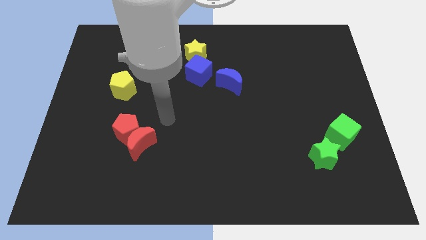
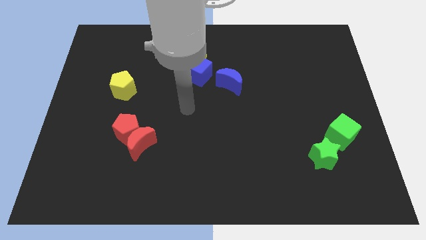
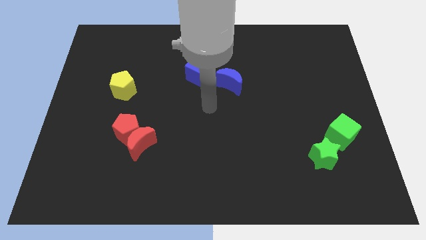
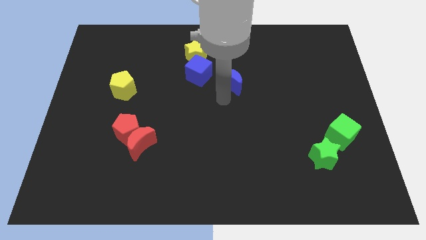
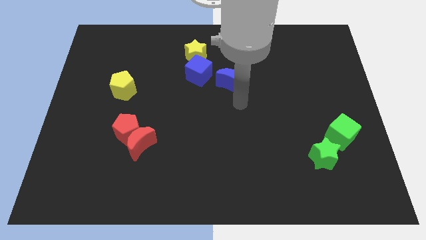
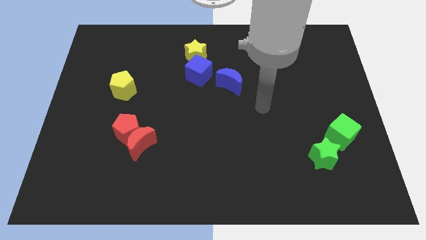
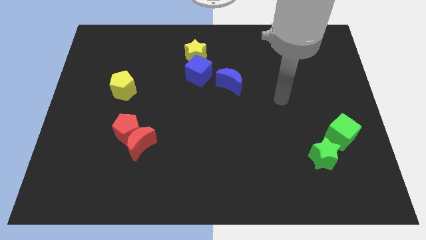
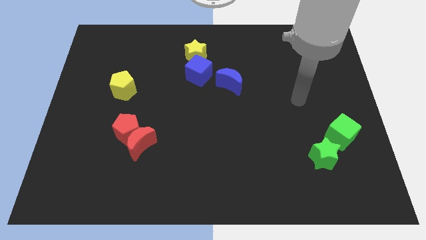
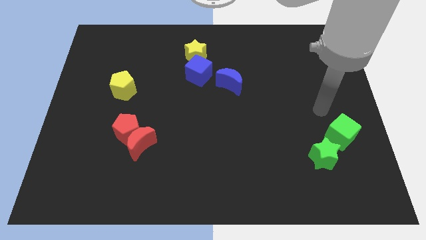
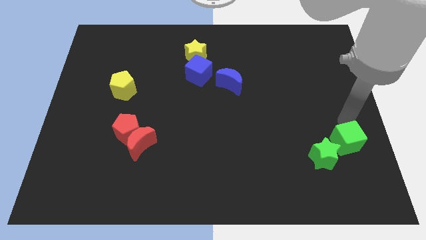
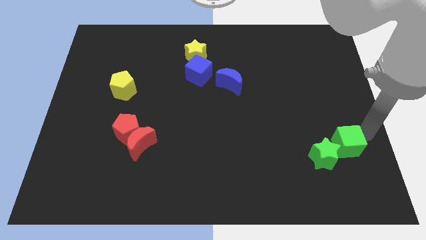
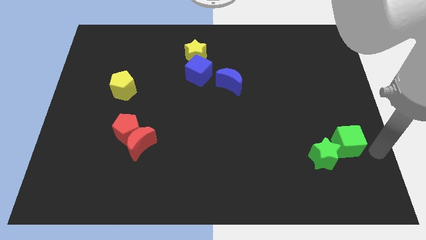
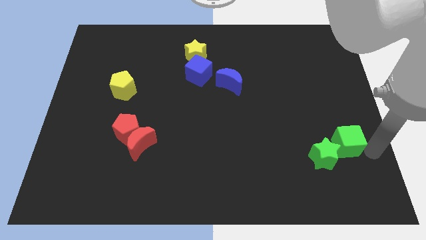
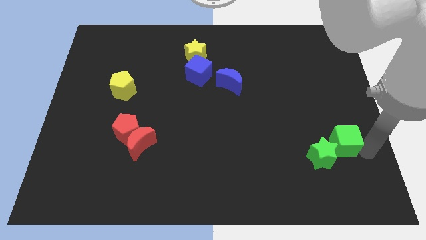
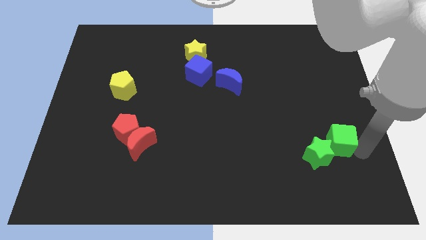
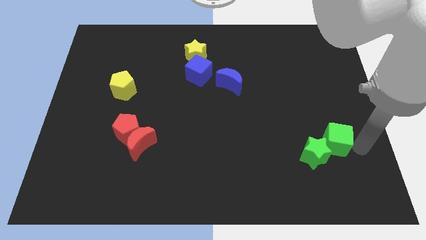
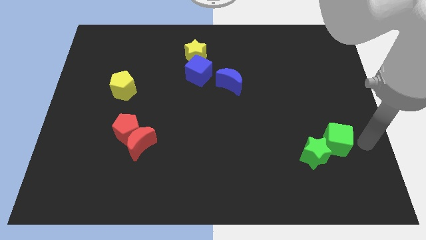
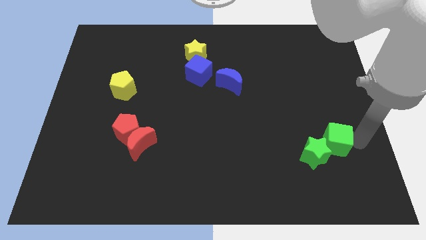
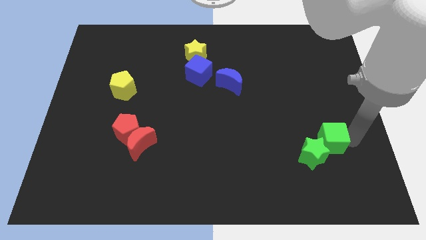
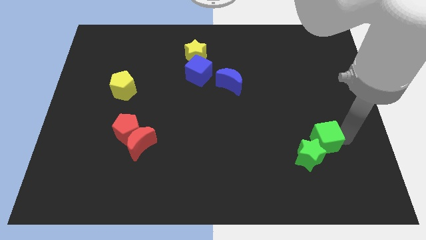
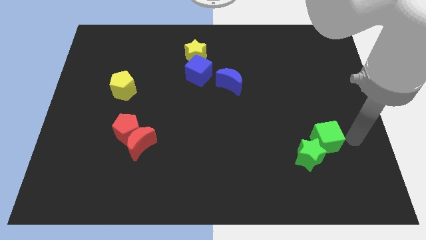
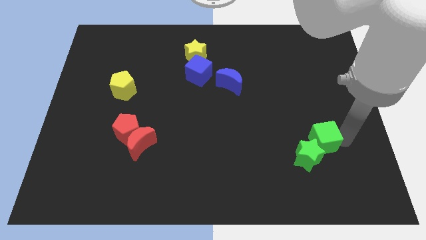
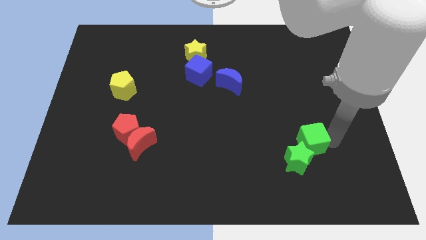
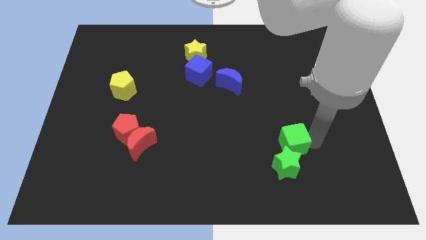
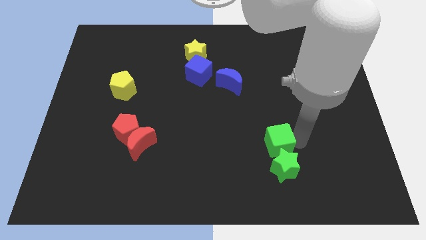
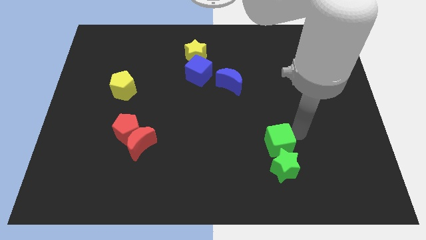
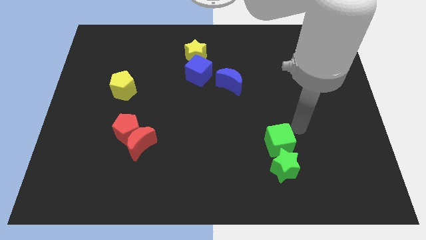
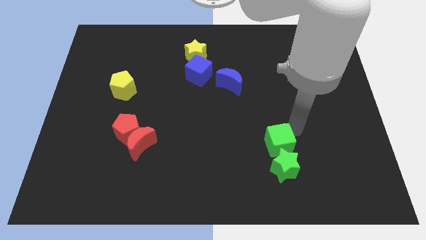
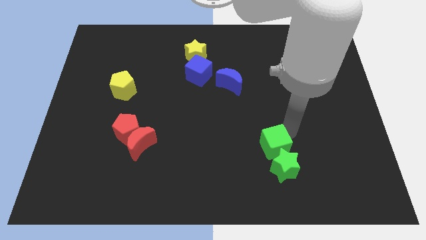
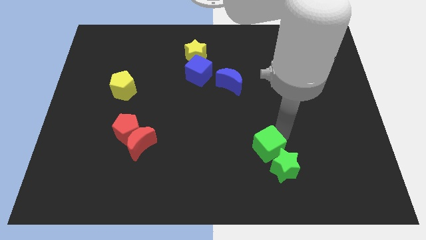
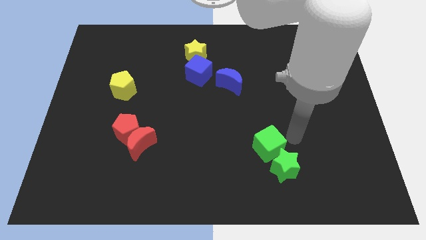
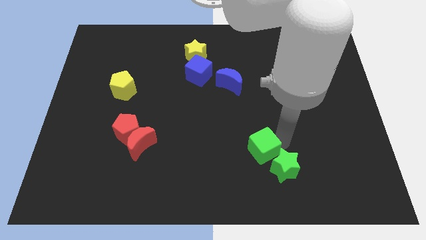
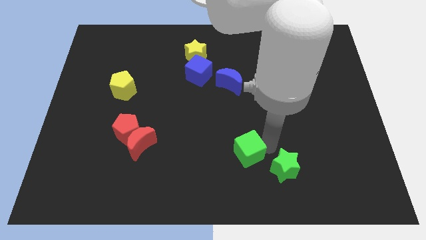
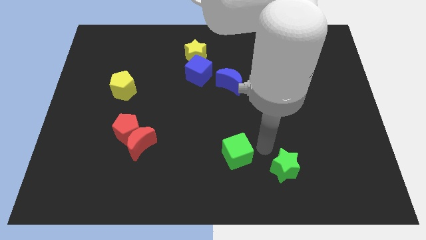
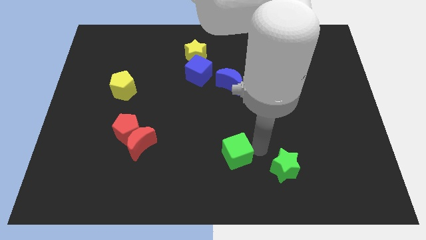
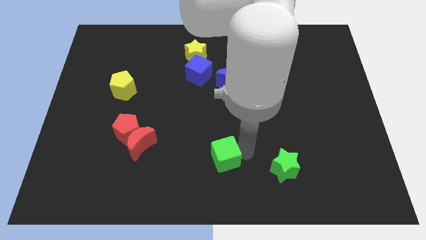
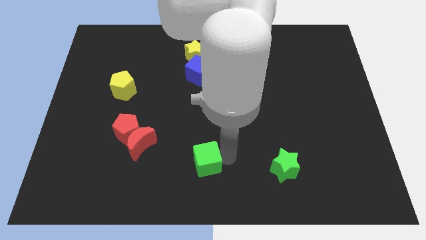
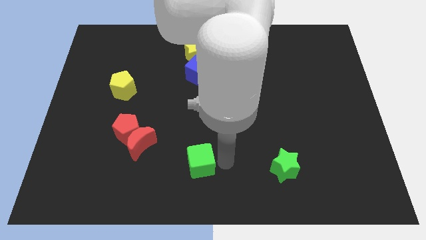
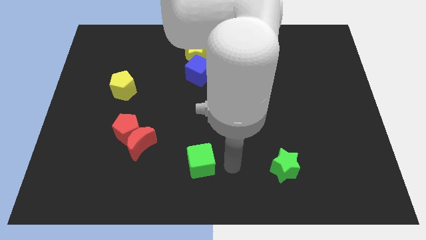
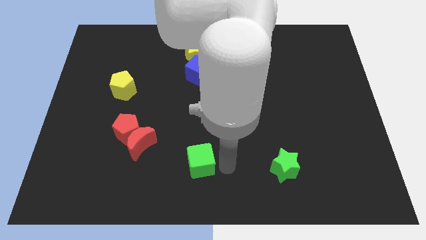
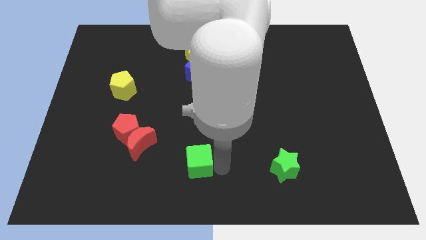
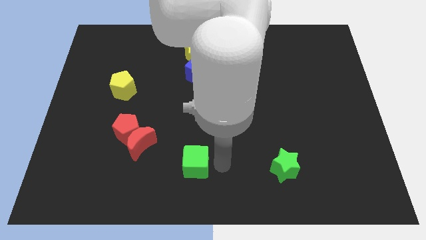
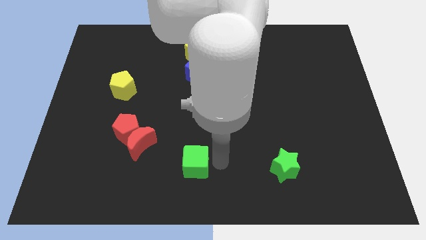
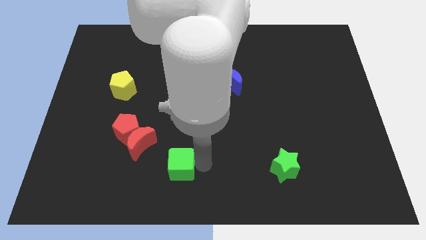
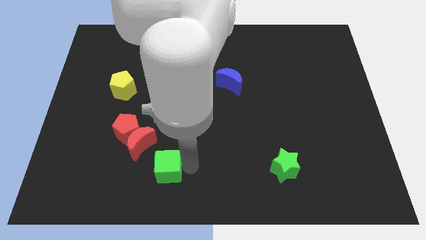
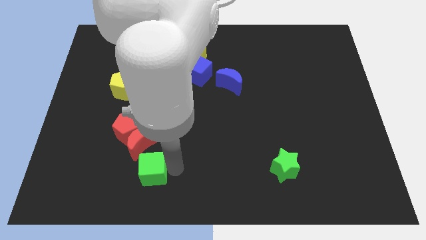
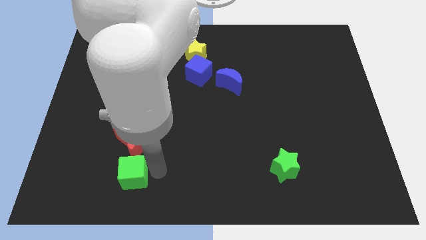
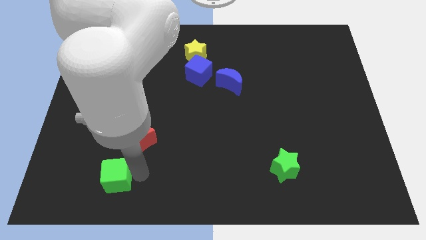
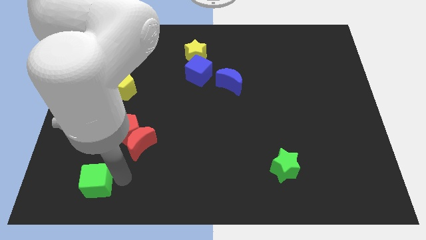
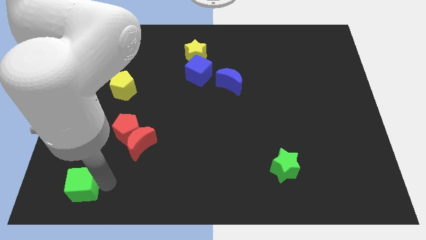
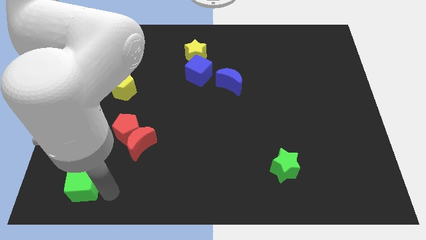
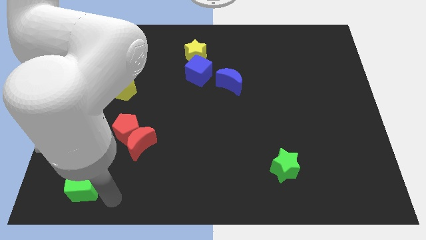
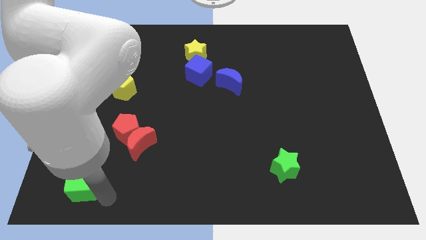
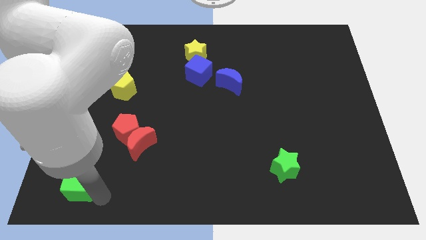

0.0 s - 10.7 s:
put the green cube to the bottom left
